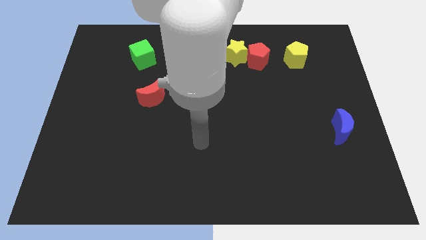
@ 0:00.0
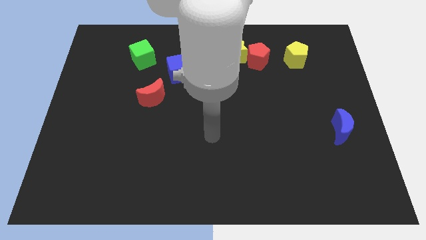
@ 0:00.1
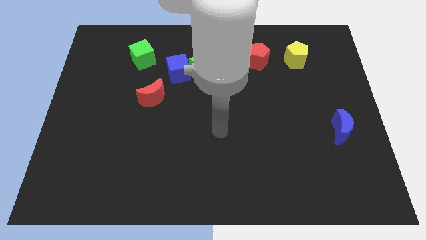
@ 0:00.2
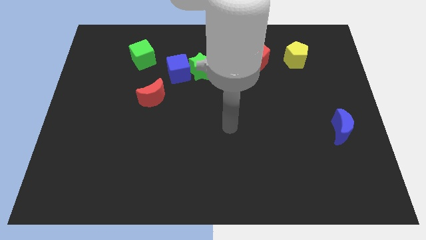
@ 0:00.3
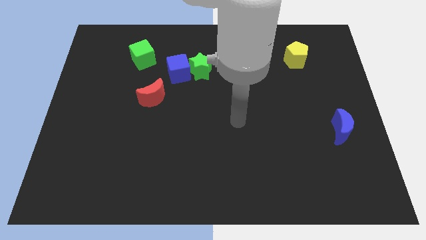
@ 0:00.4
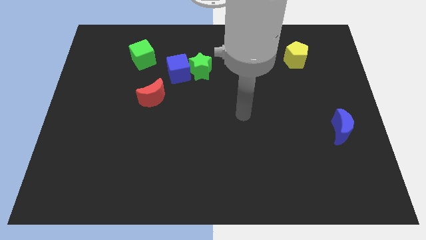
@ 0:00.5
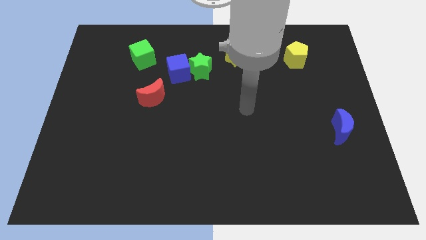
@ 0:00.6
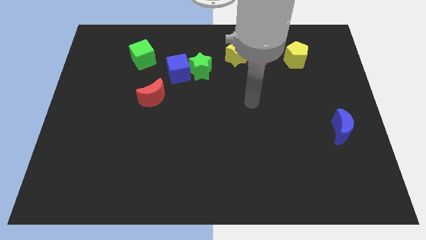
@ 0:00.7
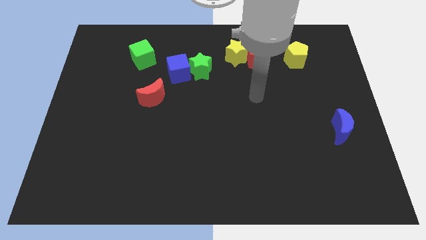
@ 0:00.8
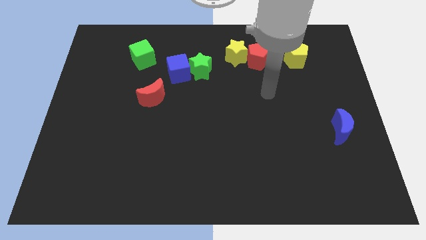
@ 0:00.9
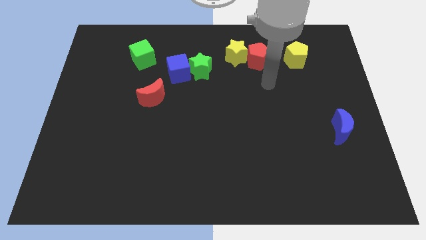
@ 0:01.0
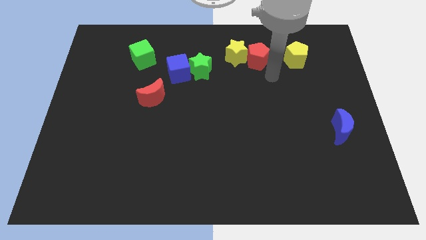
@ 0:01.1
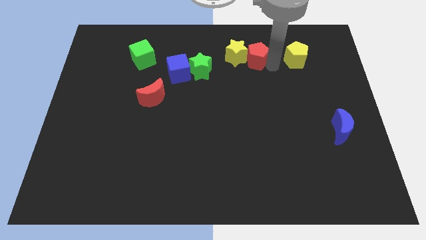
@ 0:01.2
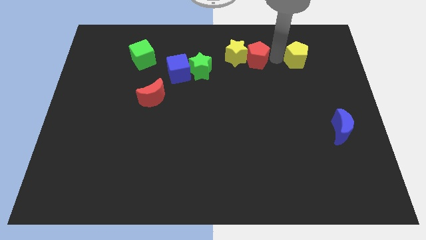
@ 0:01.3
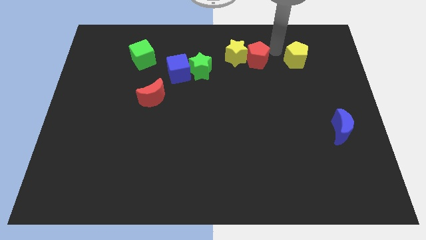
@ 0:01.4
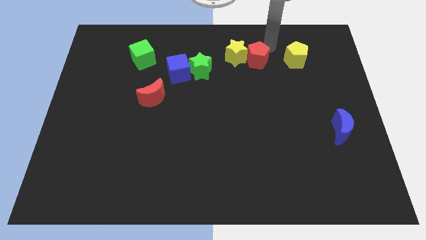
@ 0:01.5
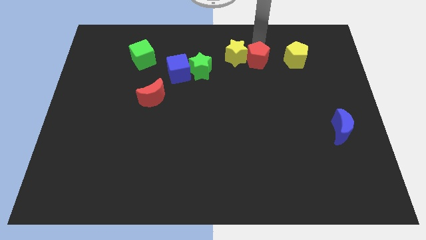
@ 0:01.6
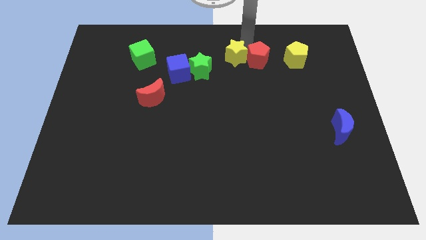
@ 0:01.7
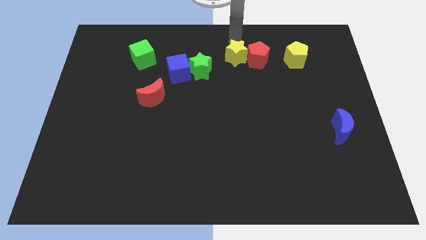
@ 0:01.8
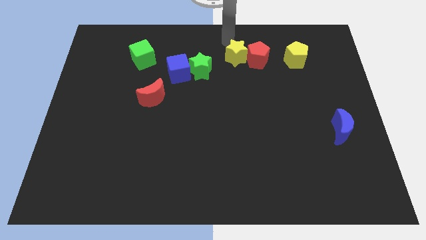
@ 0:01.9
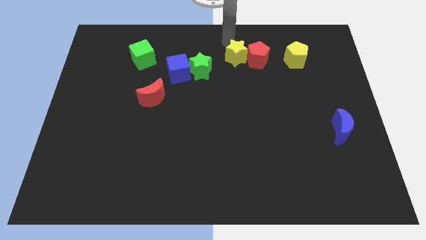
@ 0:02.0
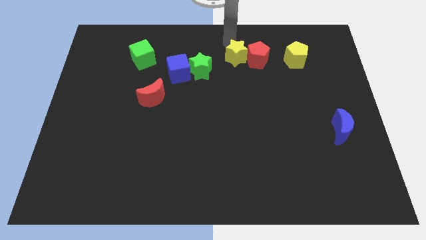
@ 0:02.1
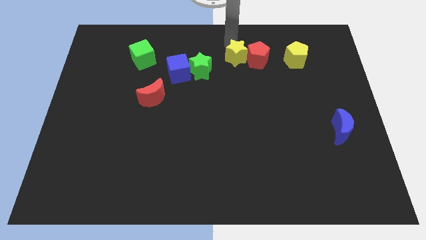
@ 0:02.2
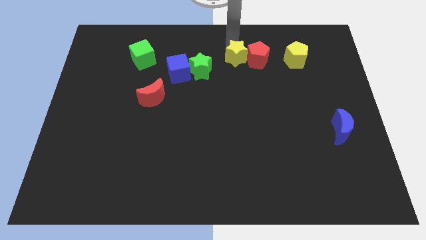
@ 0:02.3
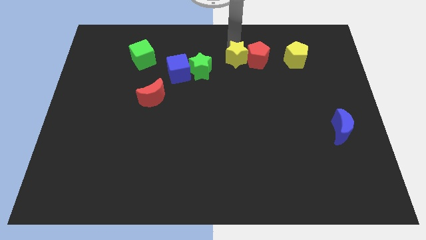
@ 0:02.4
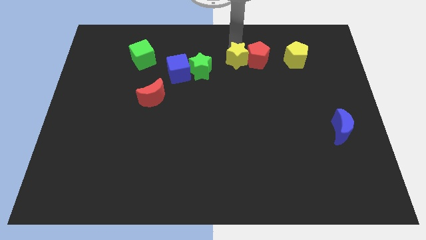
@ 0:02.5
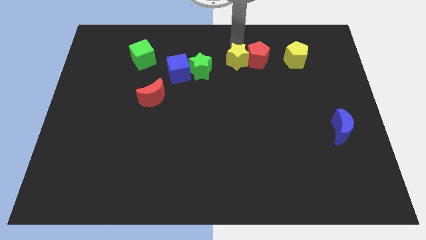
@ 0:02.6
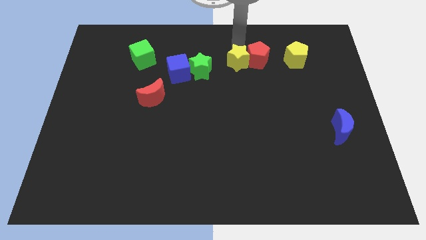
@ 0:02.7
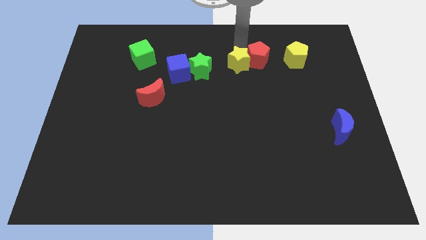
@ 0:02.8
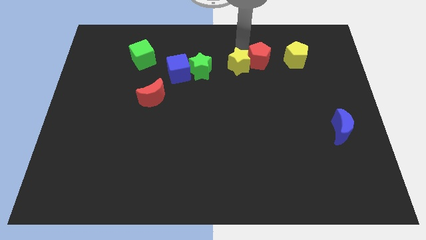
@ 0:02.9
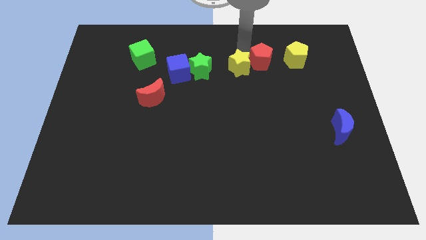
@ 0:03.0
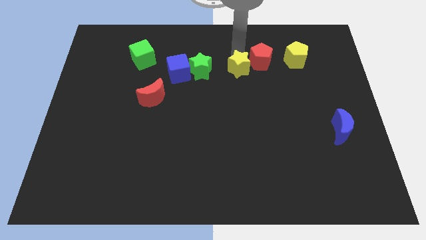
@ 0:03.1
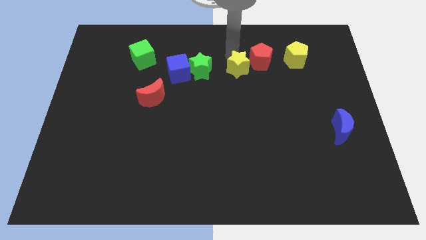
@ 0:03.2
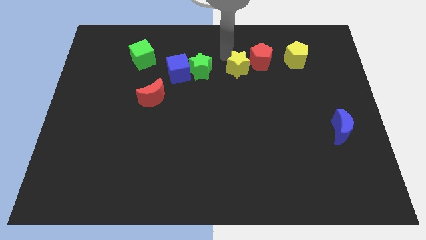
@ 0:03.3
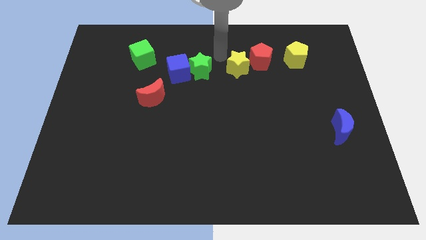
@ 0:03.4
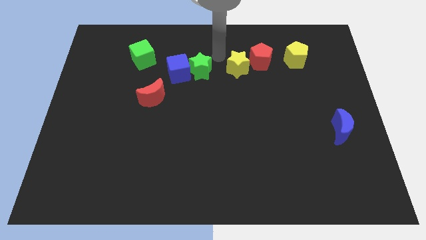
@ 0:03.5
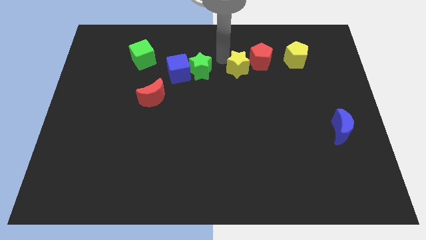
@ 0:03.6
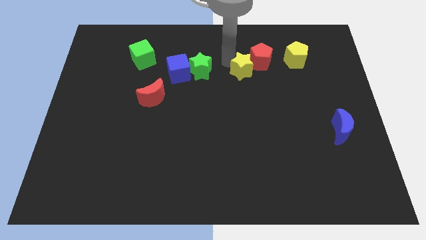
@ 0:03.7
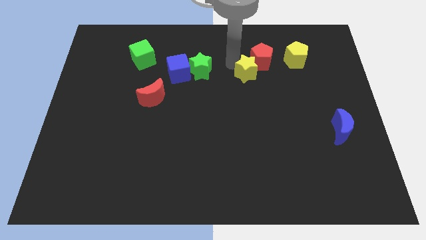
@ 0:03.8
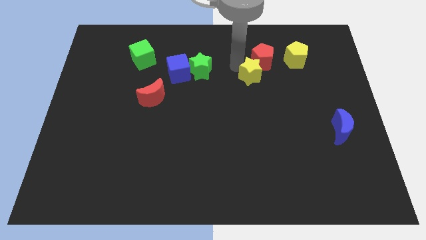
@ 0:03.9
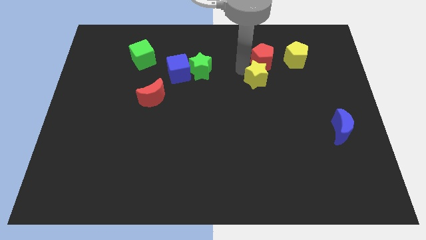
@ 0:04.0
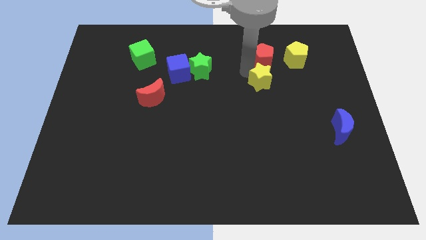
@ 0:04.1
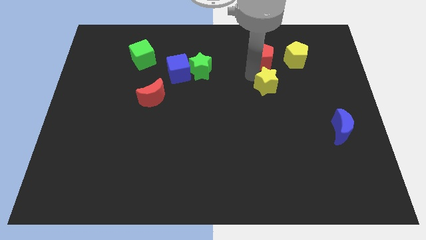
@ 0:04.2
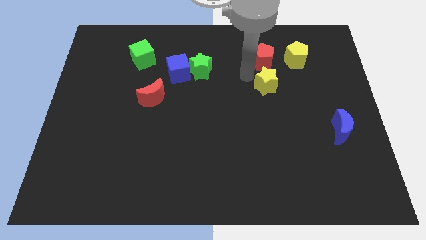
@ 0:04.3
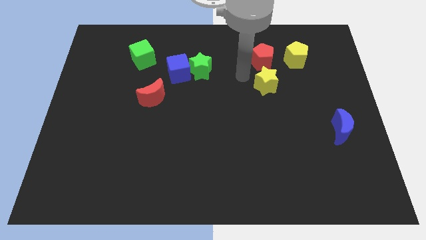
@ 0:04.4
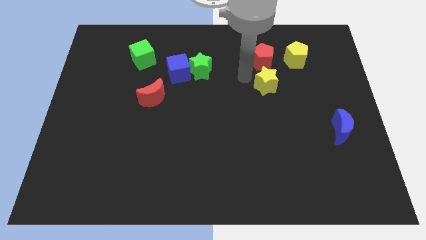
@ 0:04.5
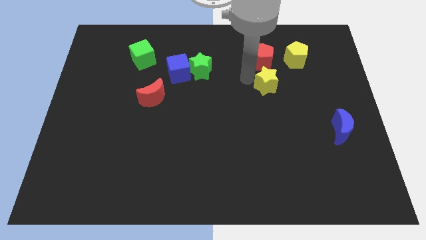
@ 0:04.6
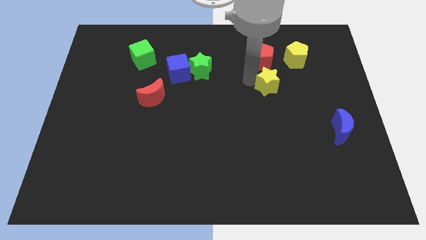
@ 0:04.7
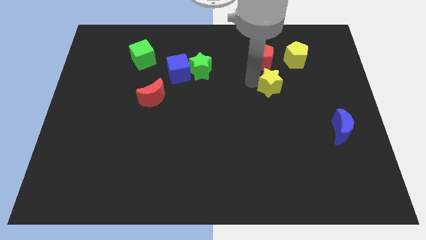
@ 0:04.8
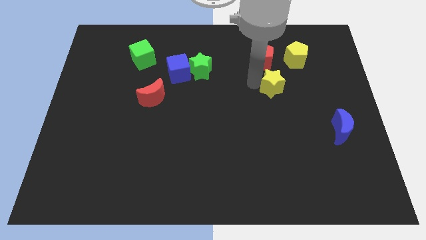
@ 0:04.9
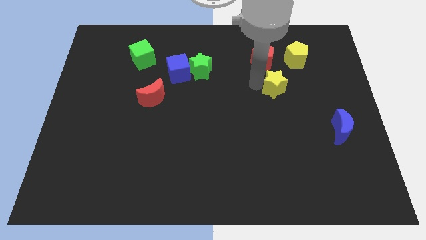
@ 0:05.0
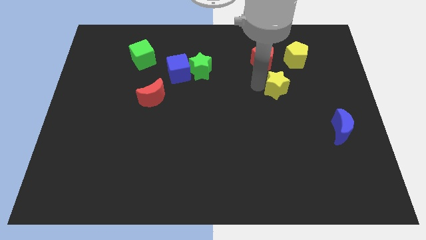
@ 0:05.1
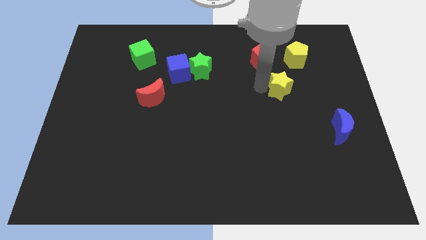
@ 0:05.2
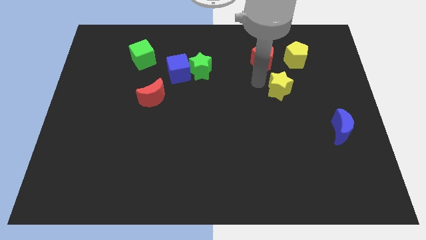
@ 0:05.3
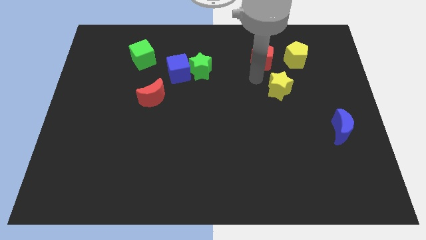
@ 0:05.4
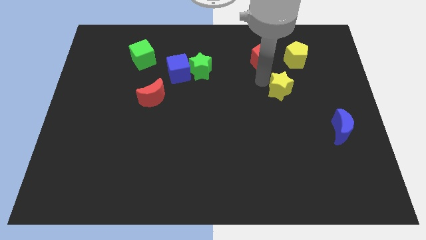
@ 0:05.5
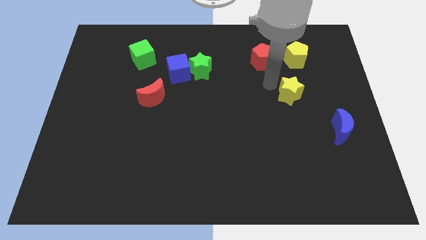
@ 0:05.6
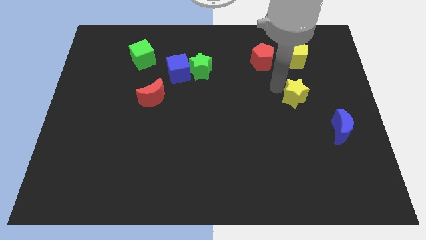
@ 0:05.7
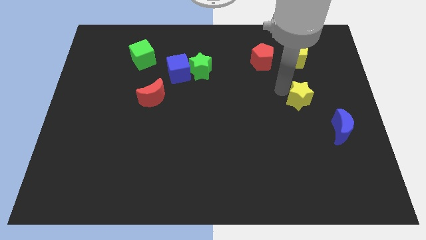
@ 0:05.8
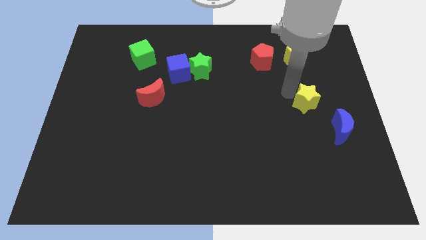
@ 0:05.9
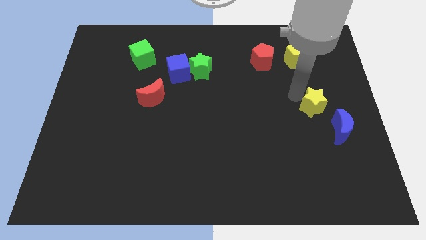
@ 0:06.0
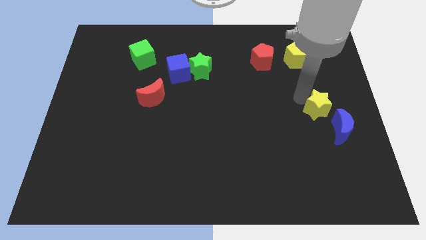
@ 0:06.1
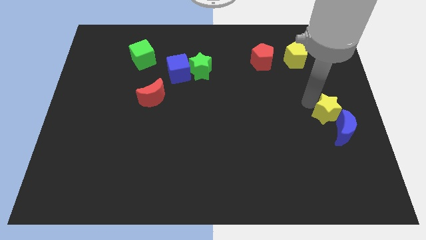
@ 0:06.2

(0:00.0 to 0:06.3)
put the yellow star towards the blue moon

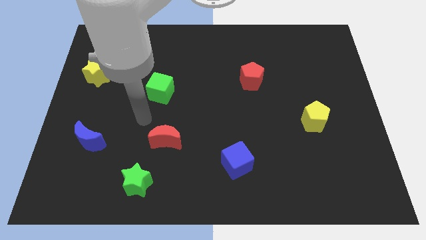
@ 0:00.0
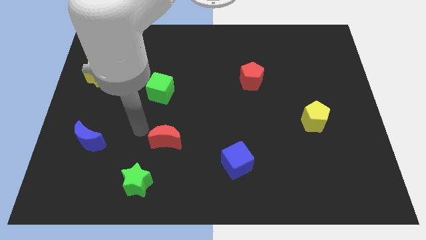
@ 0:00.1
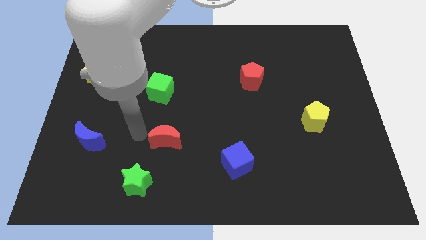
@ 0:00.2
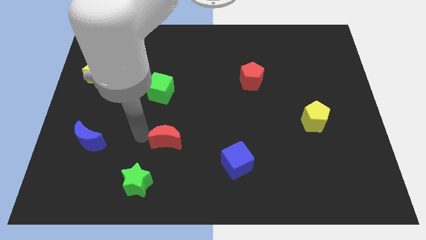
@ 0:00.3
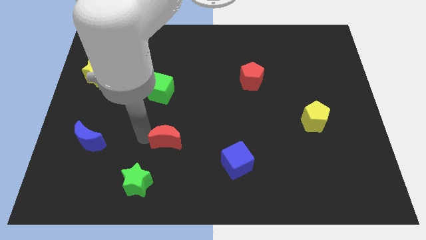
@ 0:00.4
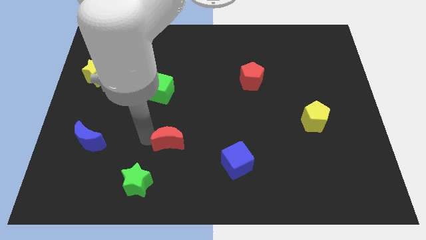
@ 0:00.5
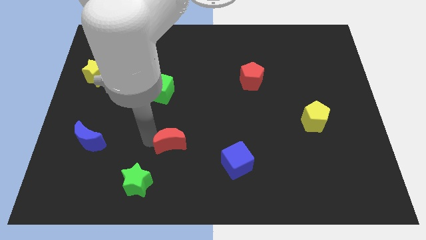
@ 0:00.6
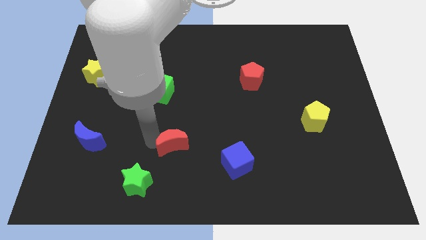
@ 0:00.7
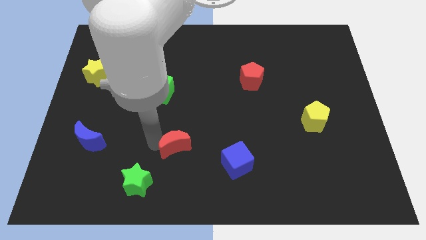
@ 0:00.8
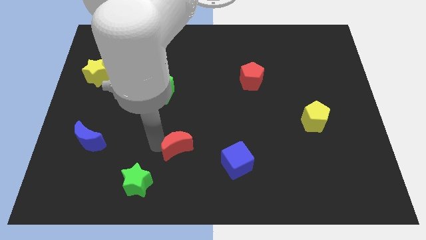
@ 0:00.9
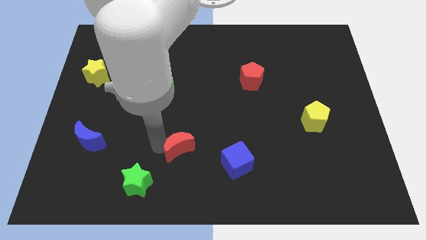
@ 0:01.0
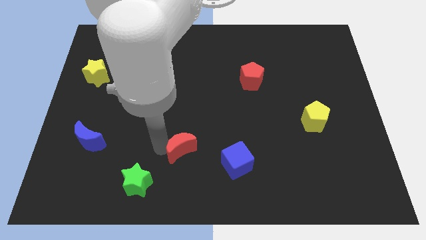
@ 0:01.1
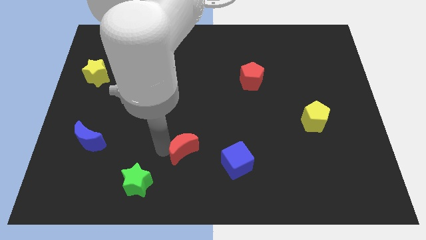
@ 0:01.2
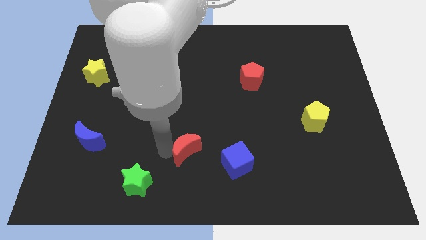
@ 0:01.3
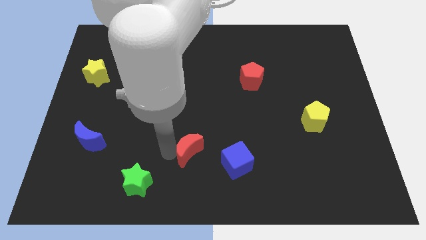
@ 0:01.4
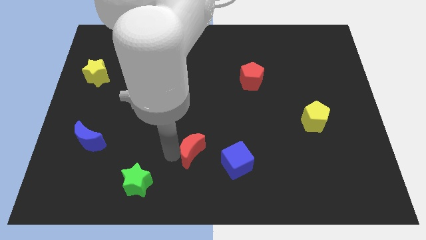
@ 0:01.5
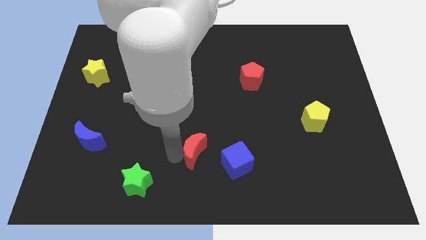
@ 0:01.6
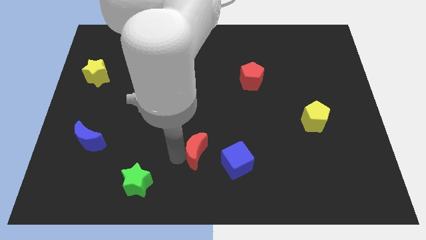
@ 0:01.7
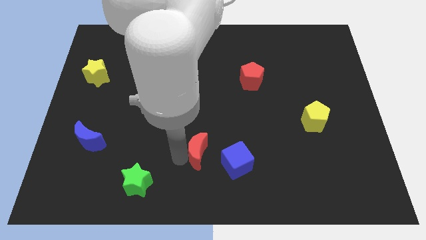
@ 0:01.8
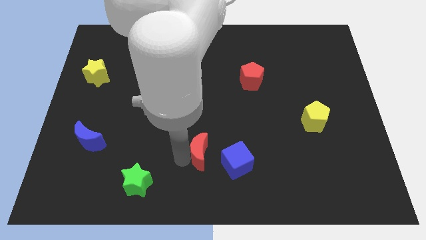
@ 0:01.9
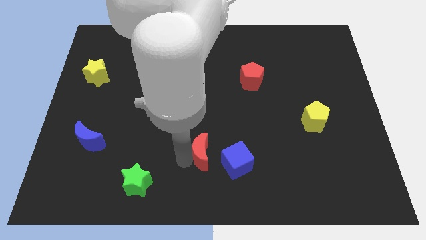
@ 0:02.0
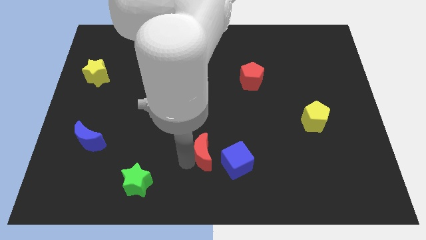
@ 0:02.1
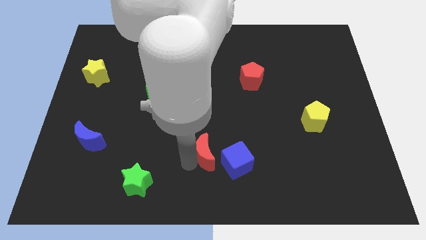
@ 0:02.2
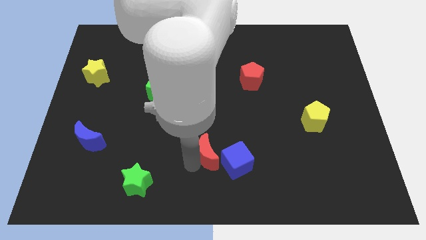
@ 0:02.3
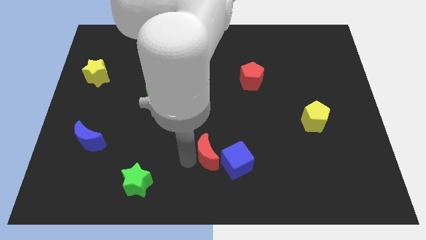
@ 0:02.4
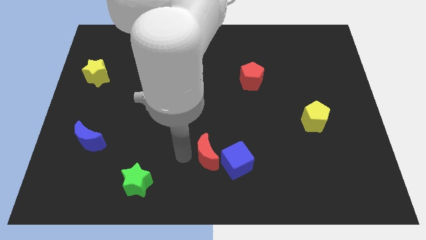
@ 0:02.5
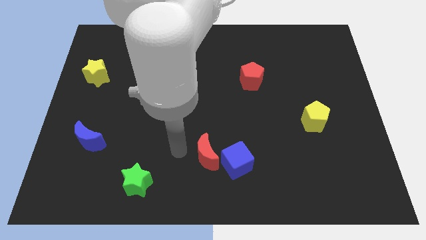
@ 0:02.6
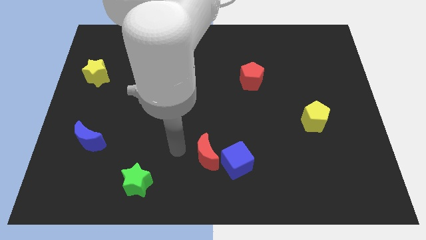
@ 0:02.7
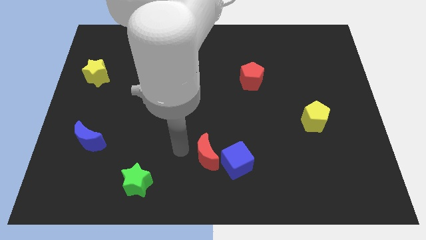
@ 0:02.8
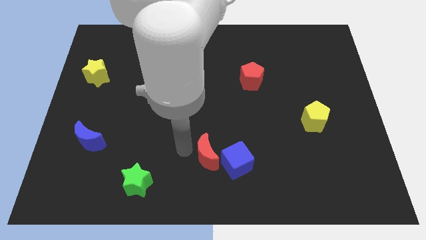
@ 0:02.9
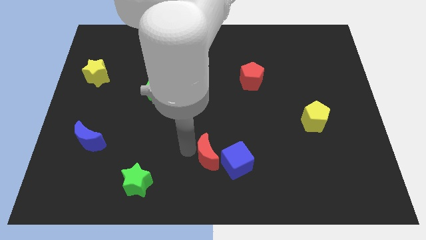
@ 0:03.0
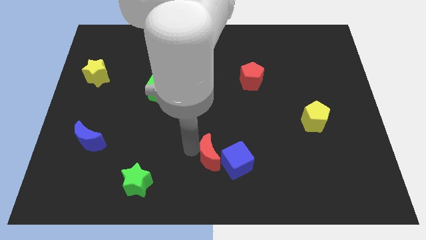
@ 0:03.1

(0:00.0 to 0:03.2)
push the red moon towards the blue cube
